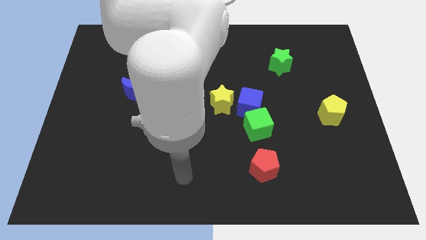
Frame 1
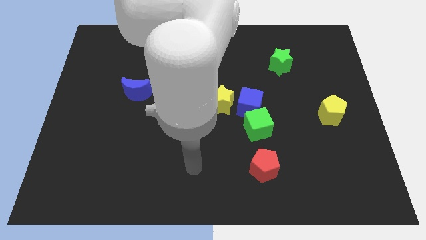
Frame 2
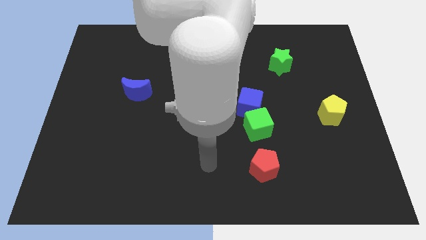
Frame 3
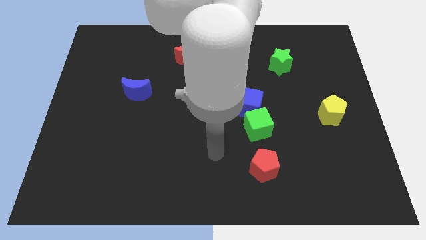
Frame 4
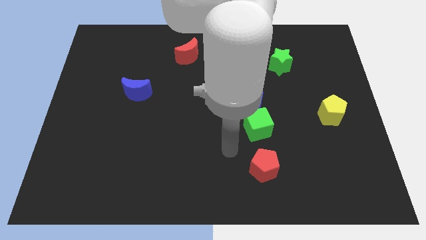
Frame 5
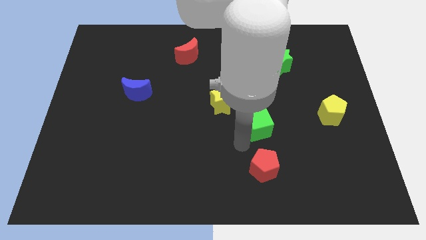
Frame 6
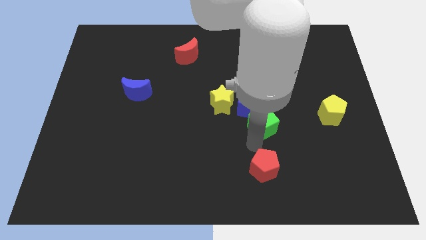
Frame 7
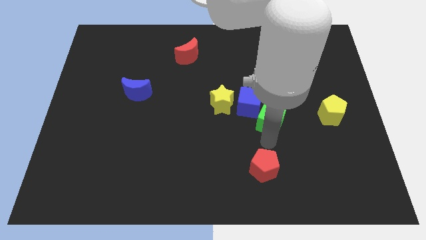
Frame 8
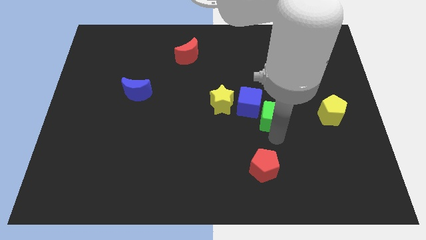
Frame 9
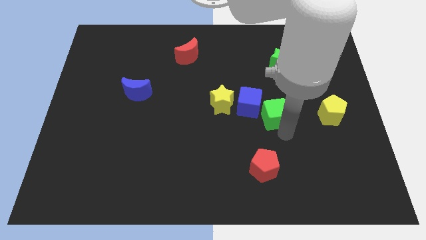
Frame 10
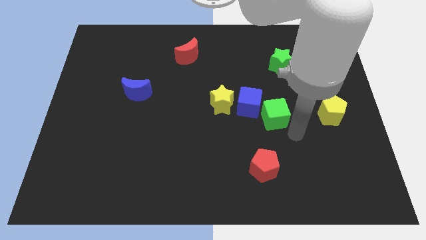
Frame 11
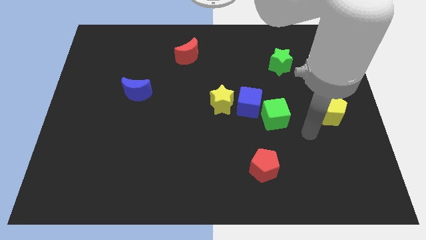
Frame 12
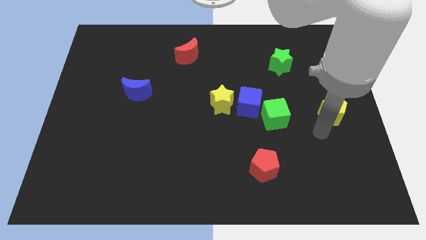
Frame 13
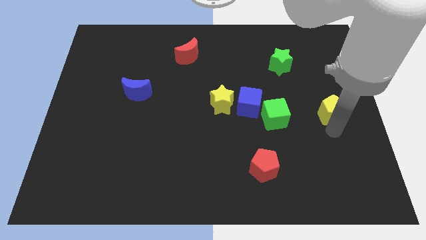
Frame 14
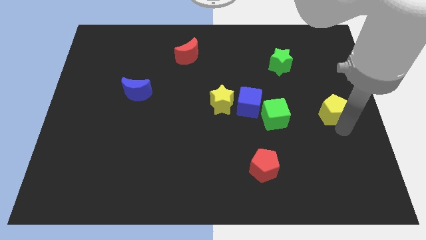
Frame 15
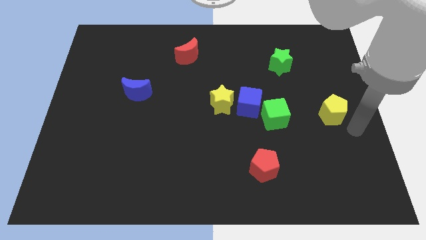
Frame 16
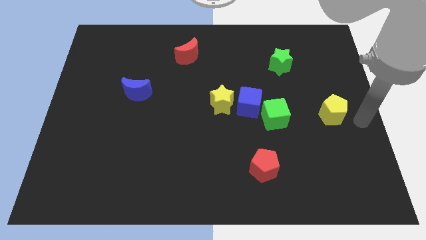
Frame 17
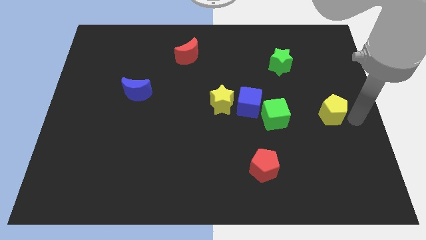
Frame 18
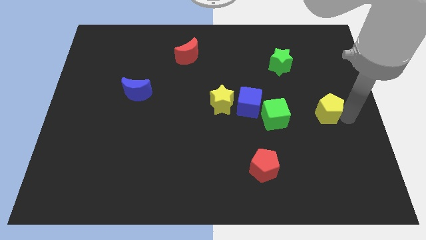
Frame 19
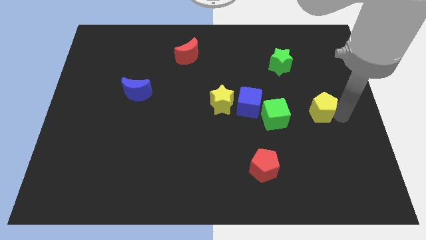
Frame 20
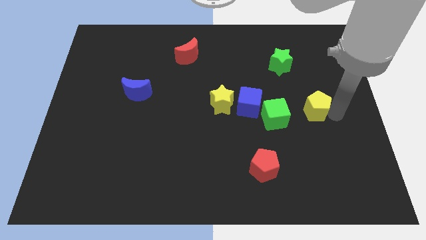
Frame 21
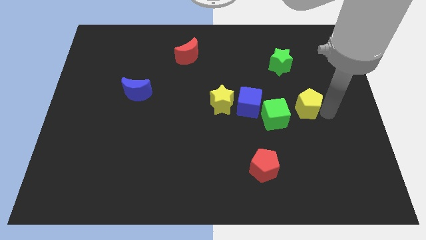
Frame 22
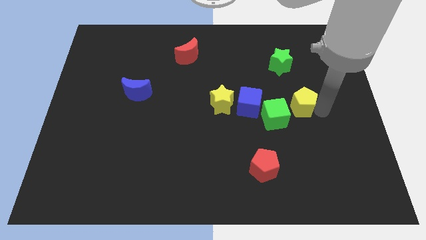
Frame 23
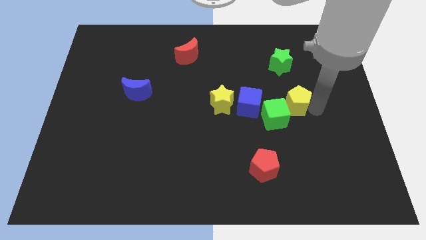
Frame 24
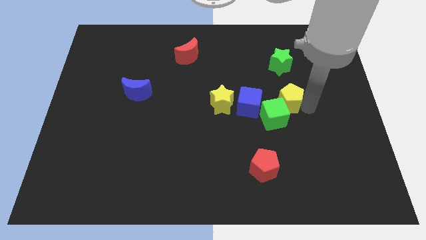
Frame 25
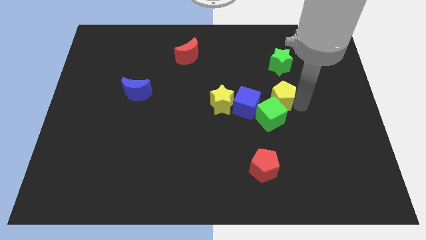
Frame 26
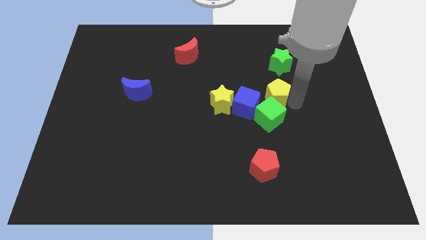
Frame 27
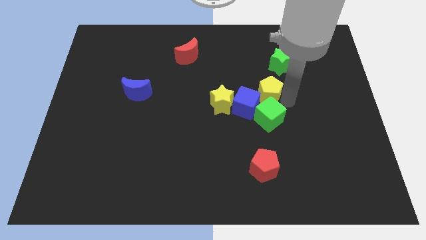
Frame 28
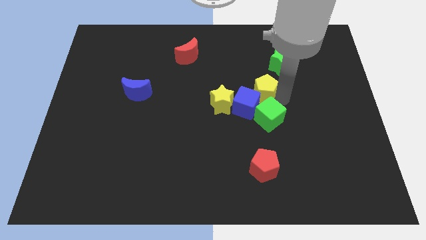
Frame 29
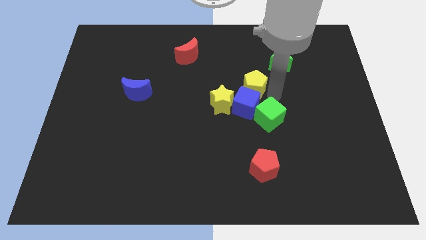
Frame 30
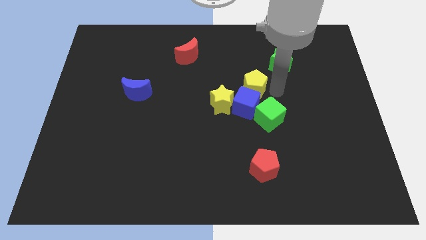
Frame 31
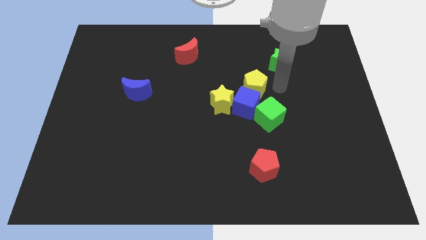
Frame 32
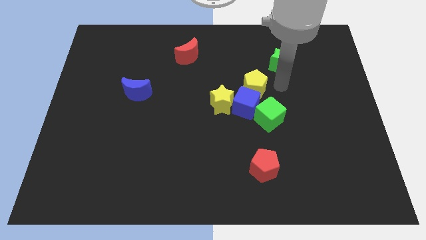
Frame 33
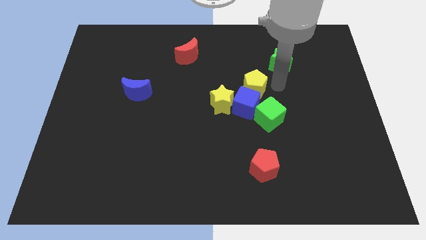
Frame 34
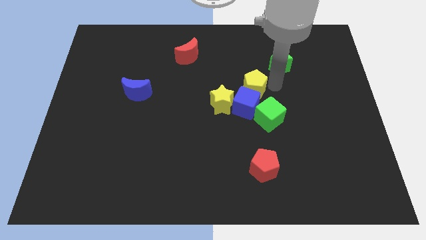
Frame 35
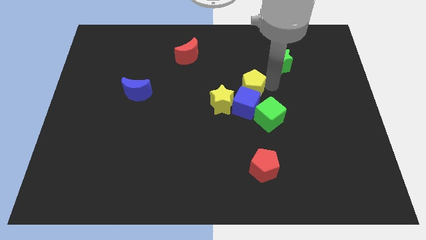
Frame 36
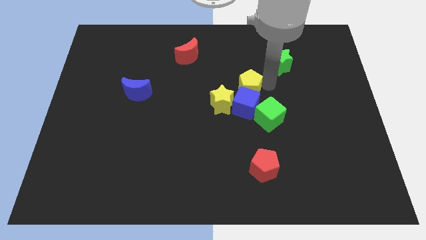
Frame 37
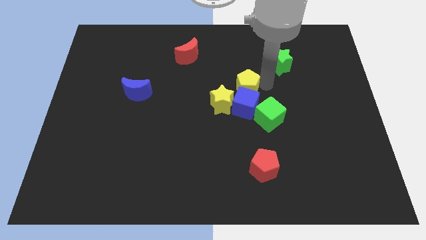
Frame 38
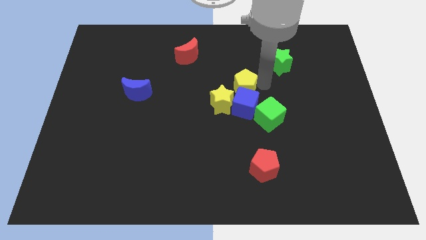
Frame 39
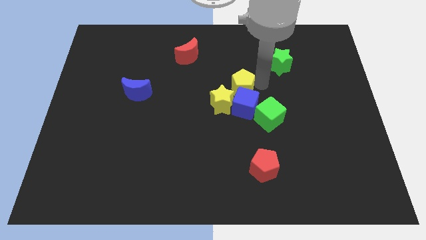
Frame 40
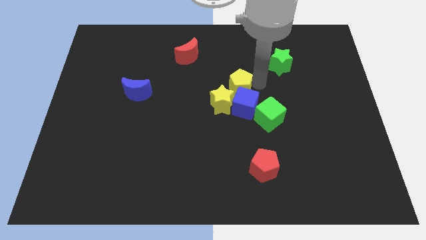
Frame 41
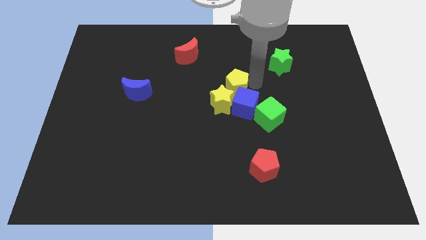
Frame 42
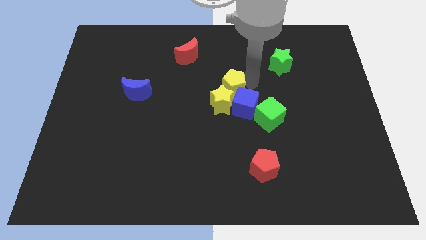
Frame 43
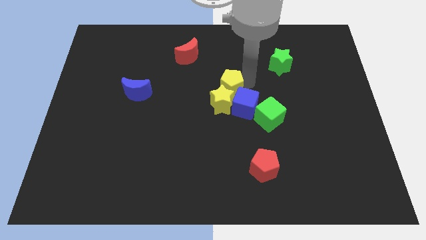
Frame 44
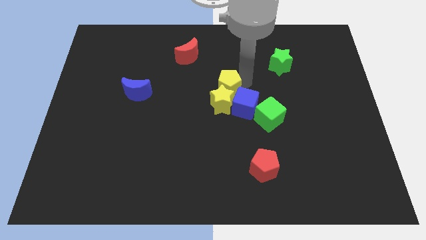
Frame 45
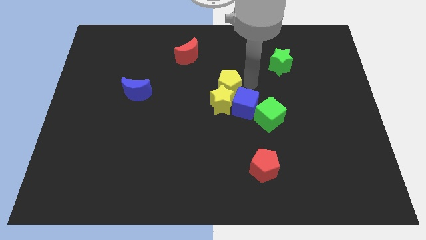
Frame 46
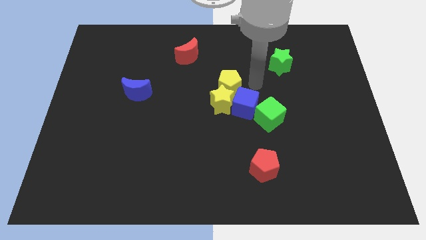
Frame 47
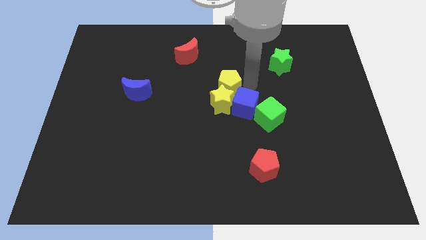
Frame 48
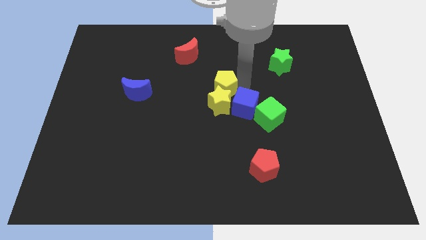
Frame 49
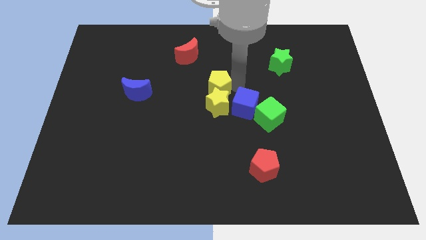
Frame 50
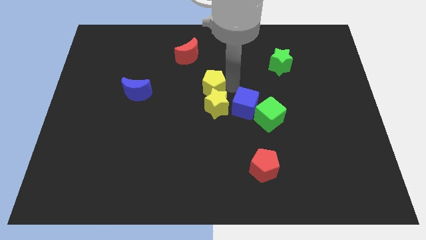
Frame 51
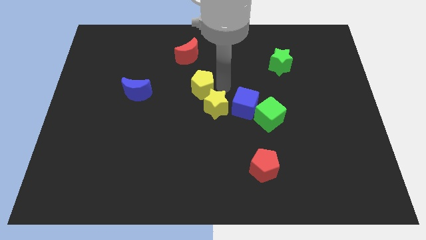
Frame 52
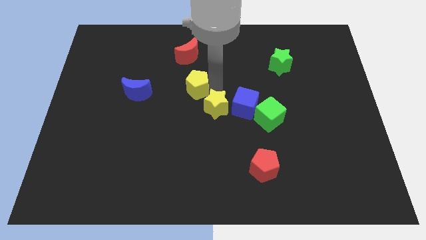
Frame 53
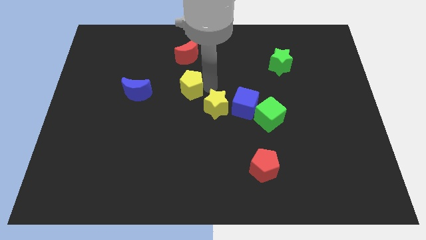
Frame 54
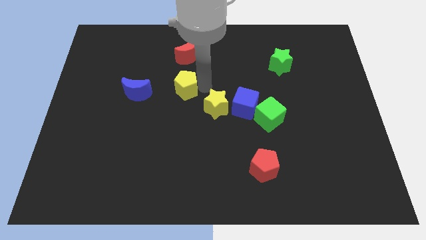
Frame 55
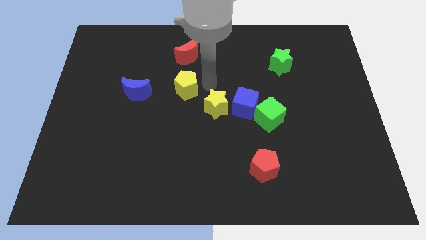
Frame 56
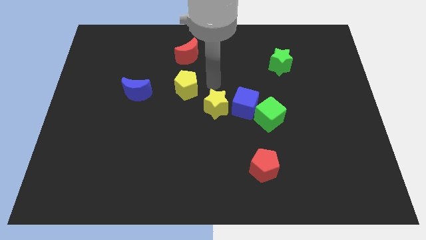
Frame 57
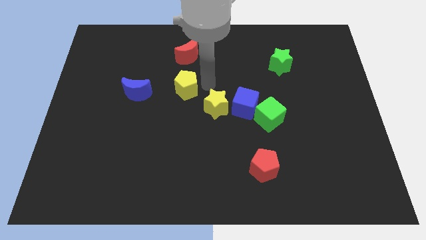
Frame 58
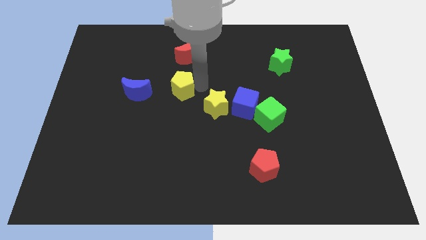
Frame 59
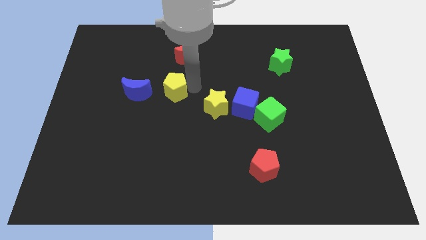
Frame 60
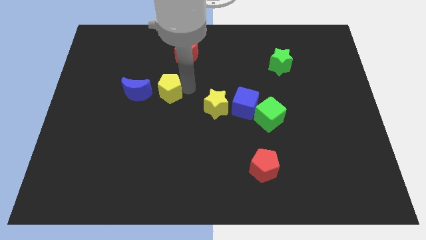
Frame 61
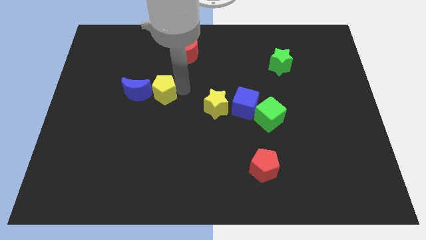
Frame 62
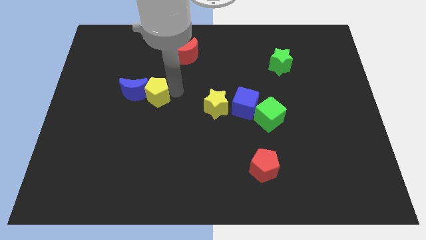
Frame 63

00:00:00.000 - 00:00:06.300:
push the yellow pentagon towards the blue moon
